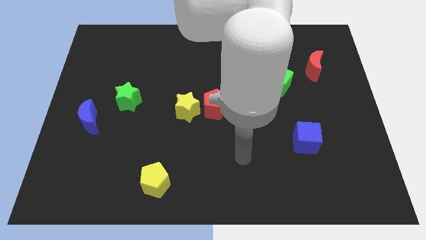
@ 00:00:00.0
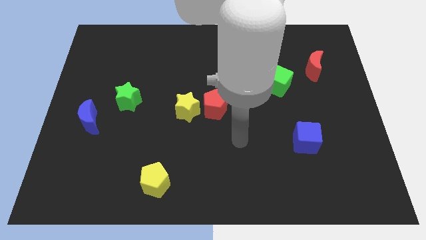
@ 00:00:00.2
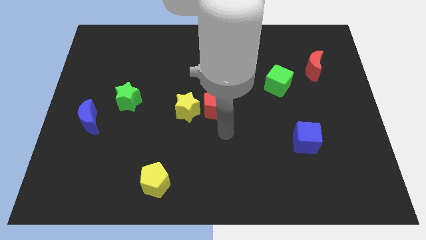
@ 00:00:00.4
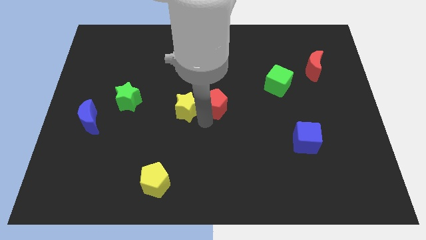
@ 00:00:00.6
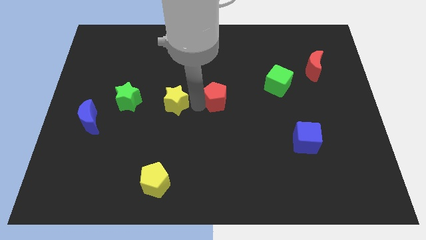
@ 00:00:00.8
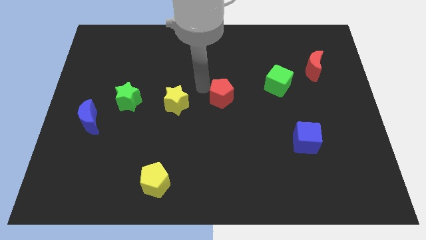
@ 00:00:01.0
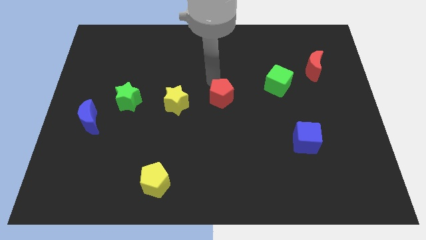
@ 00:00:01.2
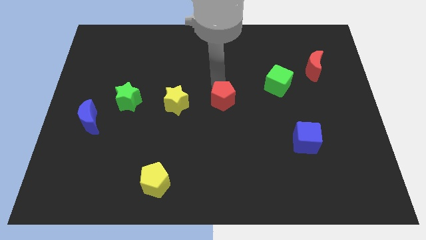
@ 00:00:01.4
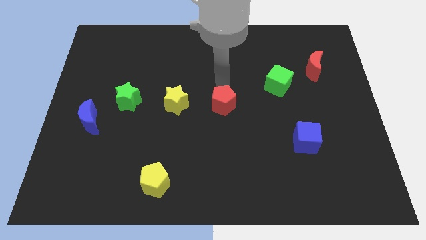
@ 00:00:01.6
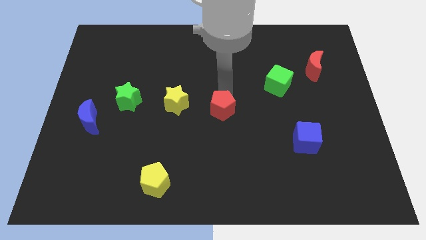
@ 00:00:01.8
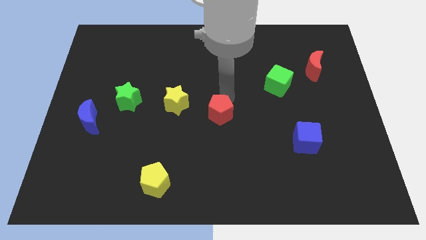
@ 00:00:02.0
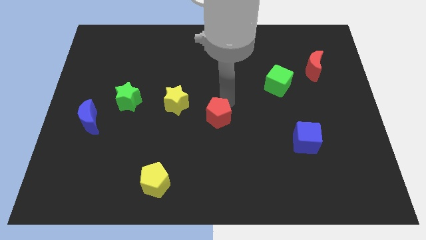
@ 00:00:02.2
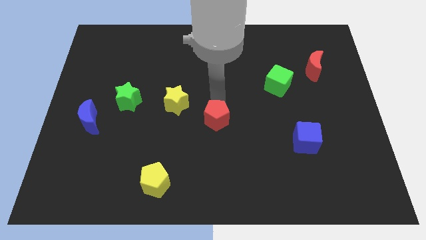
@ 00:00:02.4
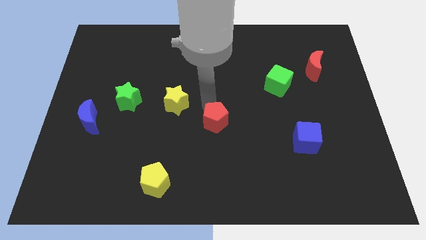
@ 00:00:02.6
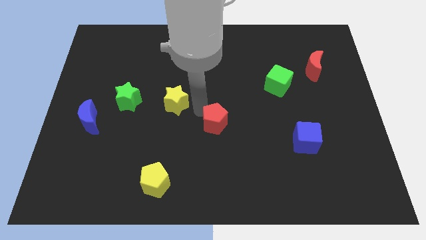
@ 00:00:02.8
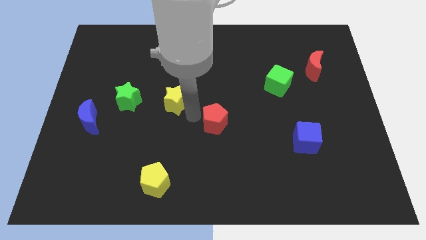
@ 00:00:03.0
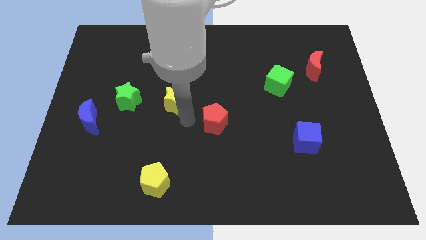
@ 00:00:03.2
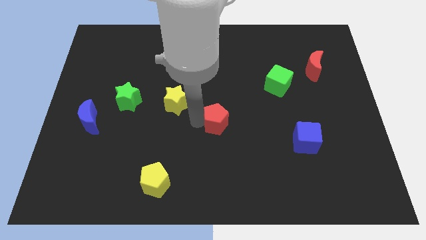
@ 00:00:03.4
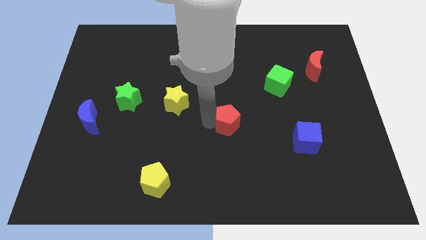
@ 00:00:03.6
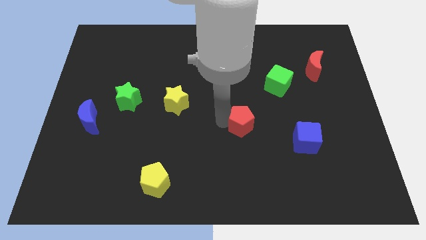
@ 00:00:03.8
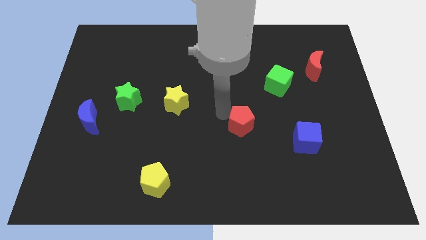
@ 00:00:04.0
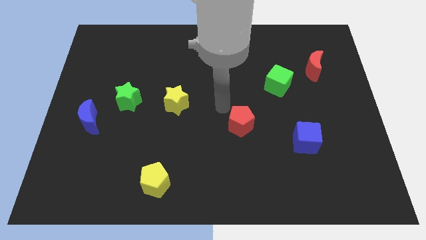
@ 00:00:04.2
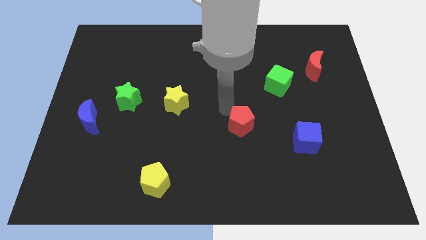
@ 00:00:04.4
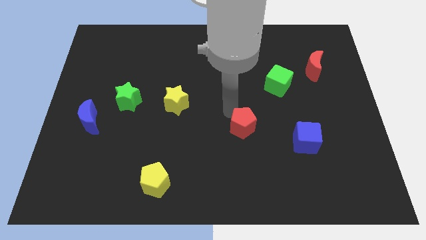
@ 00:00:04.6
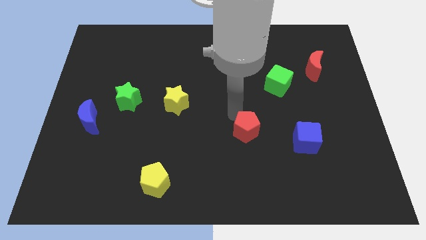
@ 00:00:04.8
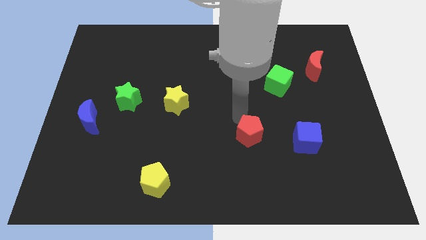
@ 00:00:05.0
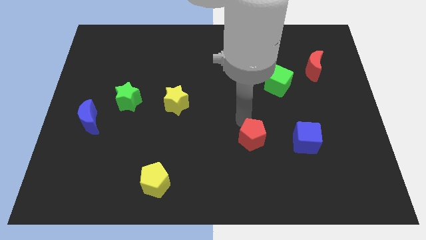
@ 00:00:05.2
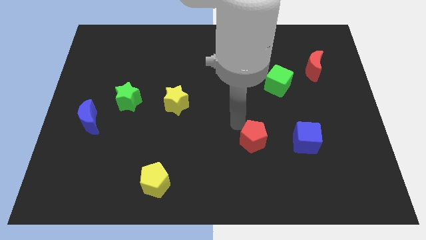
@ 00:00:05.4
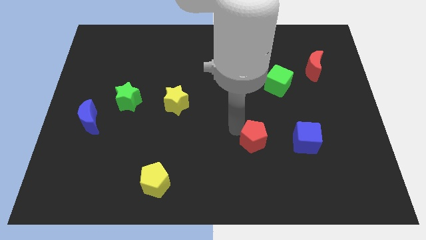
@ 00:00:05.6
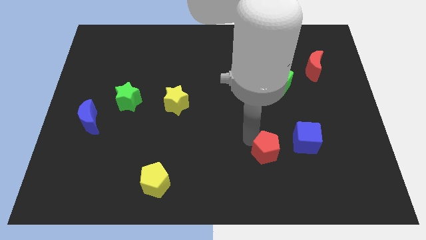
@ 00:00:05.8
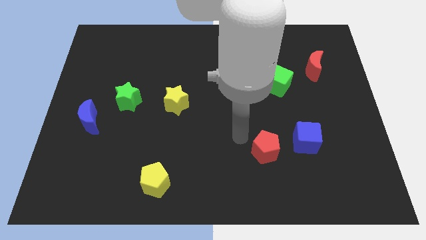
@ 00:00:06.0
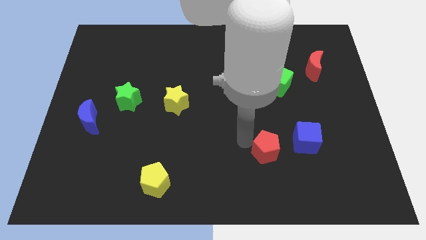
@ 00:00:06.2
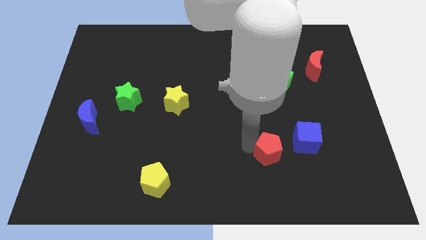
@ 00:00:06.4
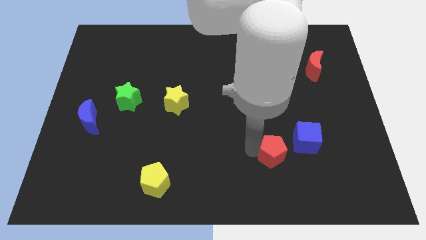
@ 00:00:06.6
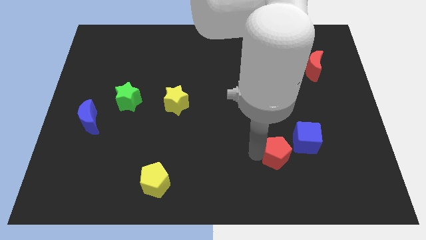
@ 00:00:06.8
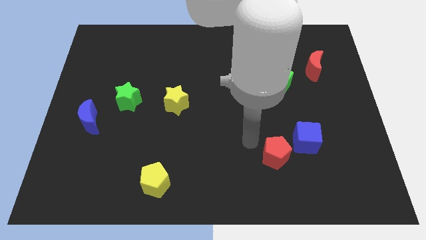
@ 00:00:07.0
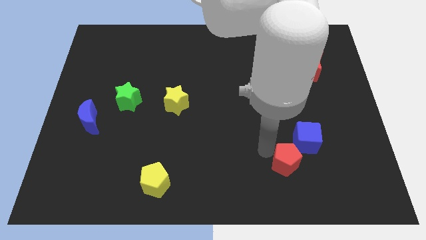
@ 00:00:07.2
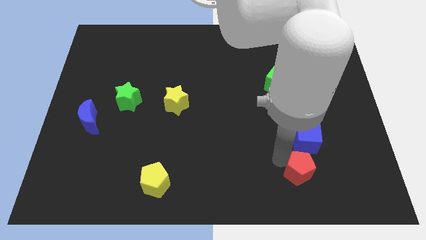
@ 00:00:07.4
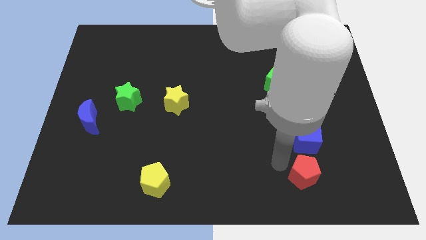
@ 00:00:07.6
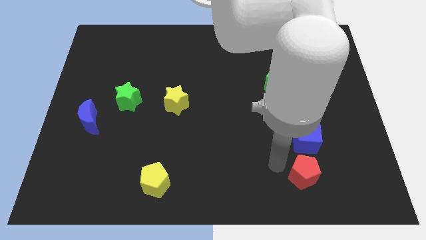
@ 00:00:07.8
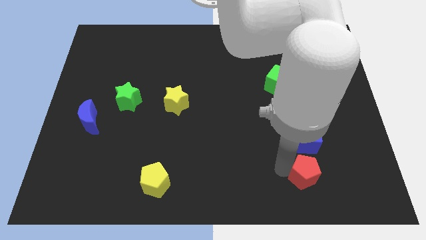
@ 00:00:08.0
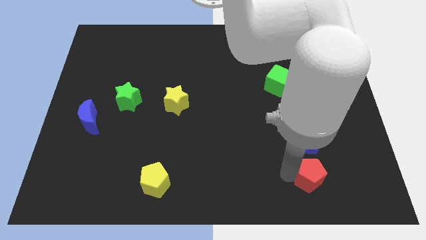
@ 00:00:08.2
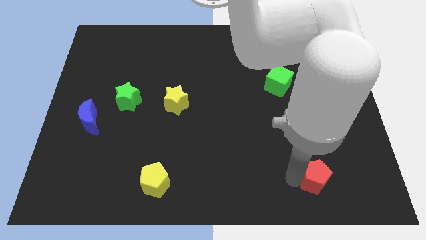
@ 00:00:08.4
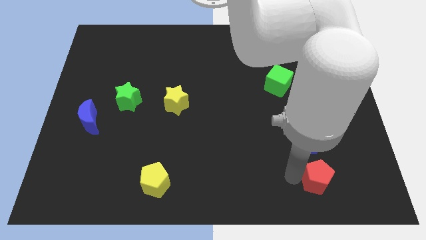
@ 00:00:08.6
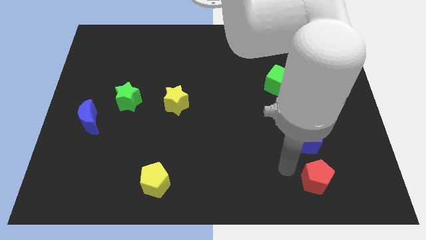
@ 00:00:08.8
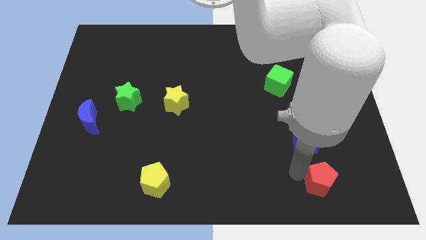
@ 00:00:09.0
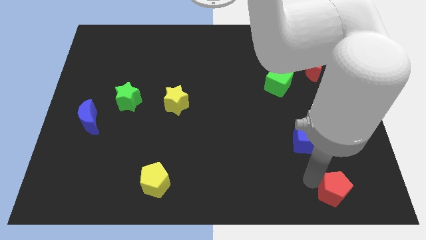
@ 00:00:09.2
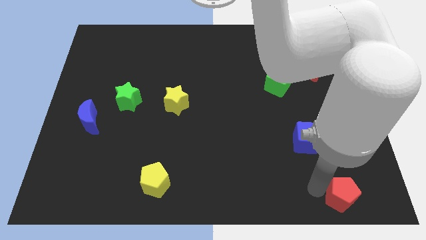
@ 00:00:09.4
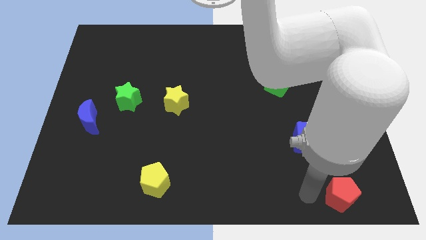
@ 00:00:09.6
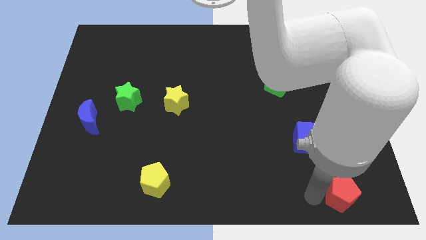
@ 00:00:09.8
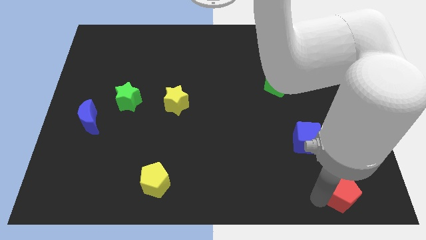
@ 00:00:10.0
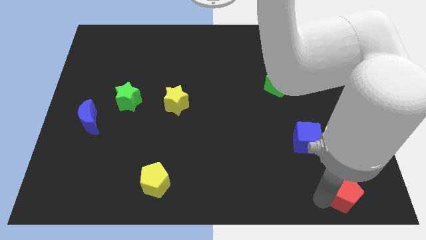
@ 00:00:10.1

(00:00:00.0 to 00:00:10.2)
move the red pentagon to the bottom right

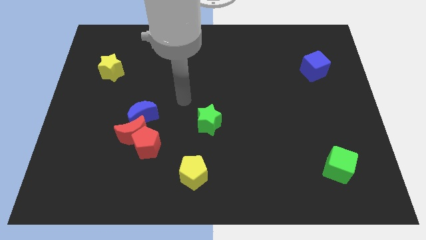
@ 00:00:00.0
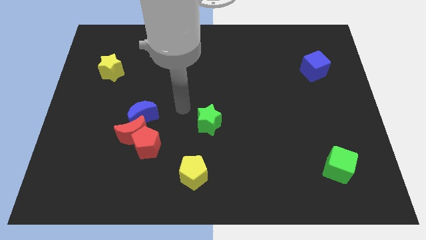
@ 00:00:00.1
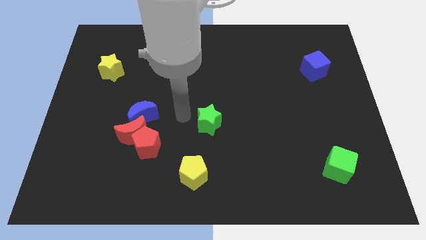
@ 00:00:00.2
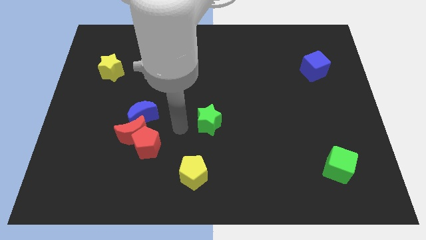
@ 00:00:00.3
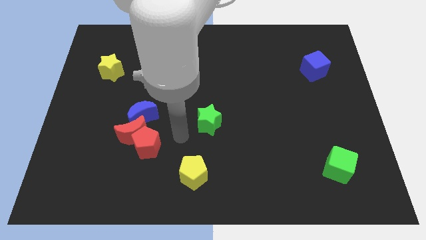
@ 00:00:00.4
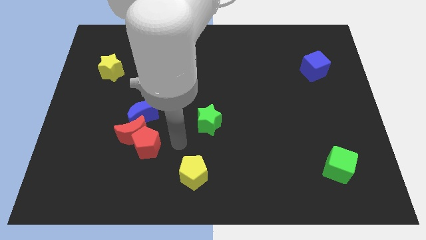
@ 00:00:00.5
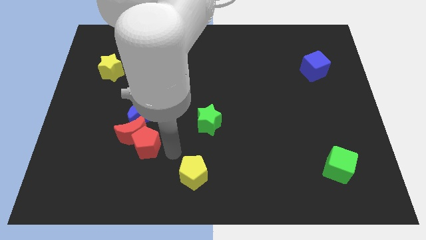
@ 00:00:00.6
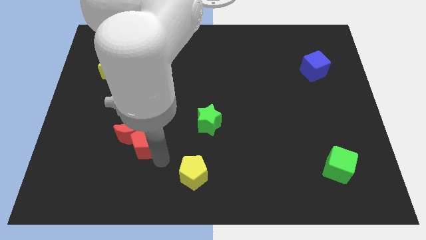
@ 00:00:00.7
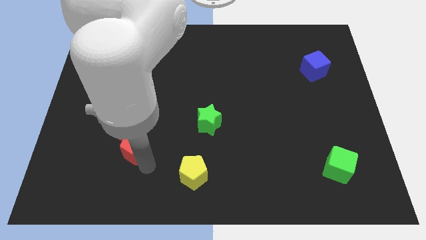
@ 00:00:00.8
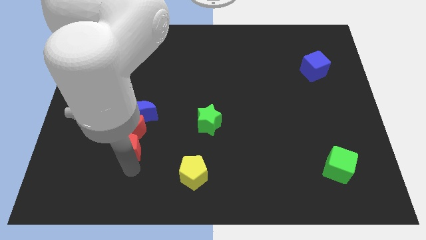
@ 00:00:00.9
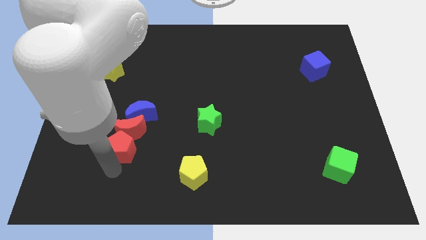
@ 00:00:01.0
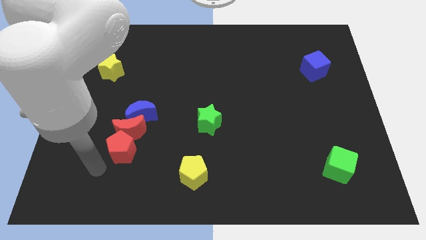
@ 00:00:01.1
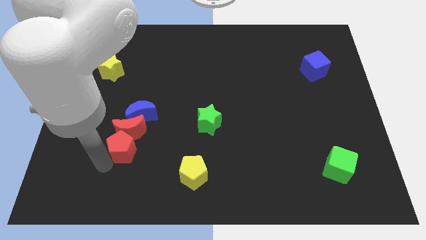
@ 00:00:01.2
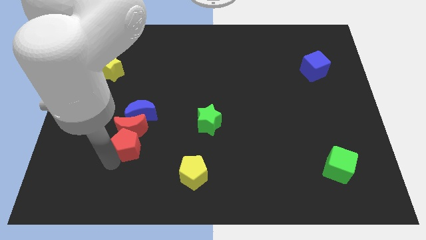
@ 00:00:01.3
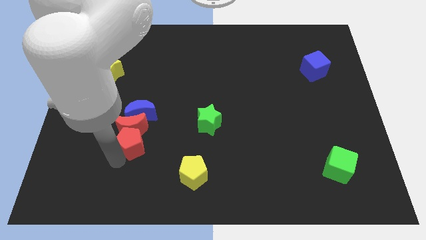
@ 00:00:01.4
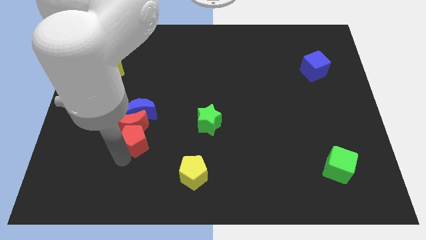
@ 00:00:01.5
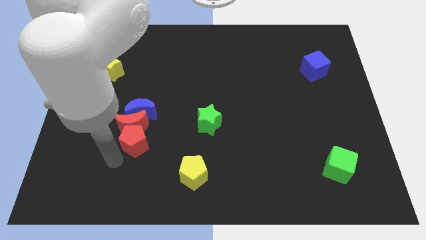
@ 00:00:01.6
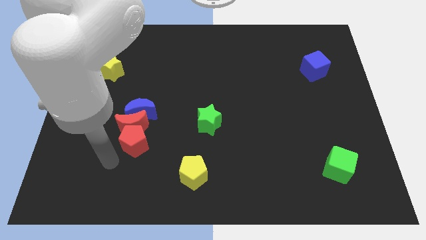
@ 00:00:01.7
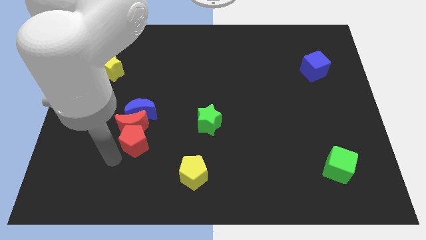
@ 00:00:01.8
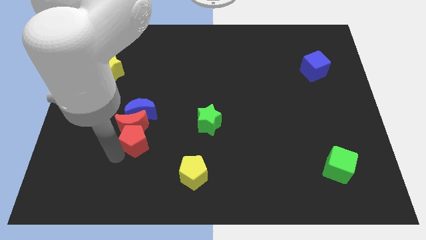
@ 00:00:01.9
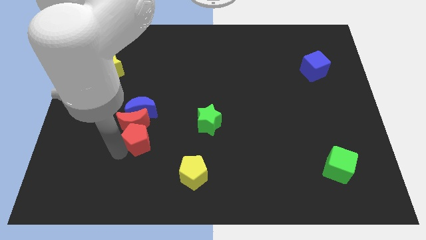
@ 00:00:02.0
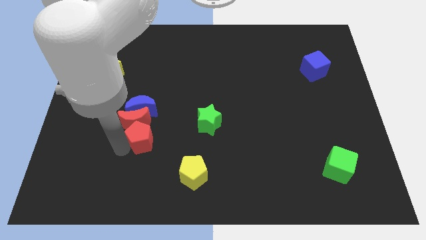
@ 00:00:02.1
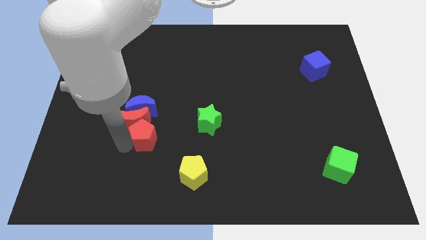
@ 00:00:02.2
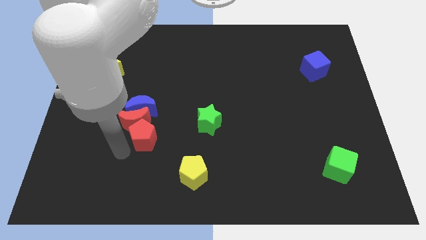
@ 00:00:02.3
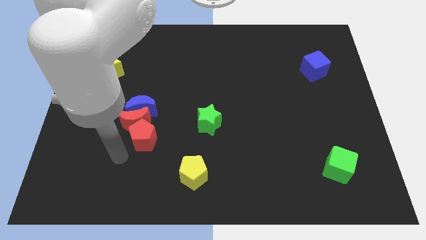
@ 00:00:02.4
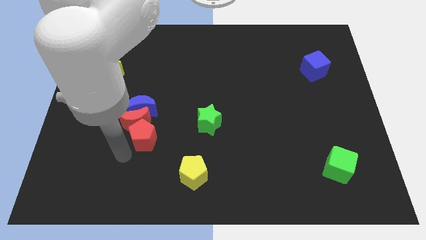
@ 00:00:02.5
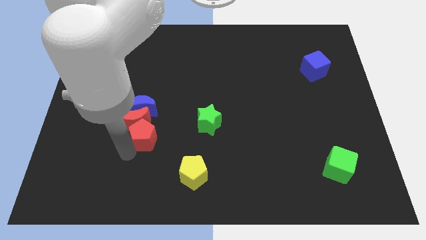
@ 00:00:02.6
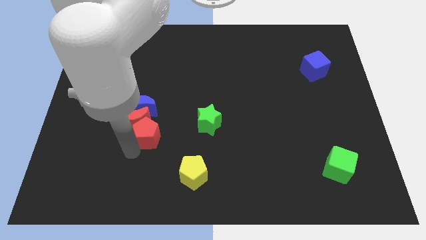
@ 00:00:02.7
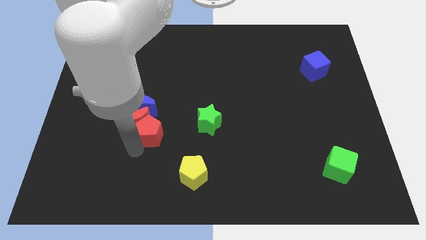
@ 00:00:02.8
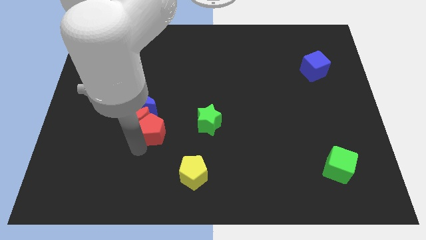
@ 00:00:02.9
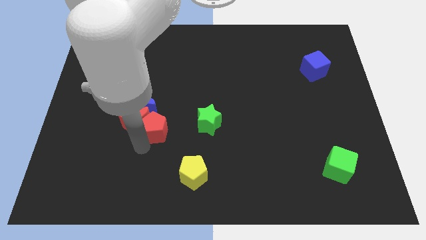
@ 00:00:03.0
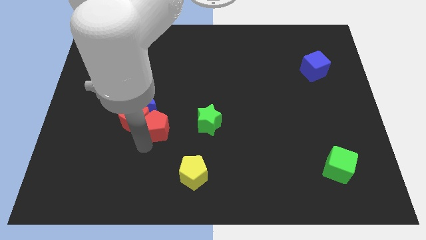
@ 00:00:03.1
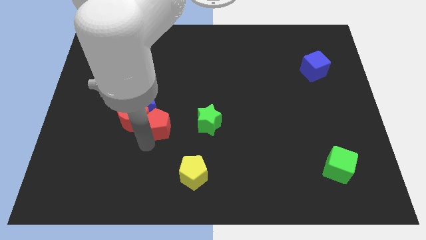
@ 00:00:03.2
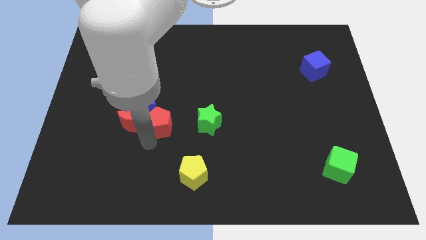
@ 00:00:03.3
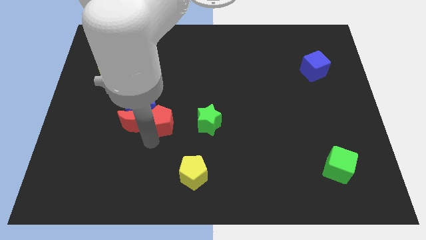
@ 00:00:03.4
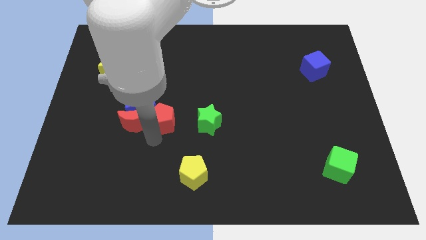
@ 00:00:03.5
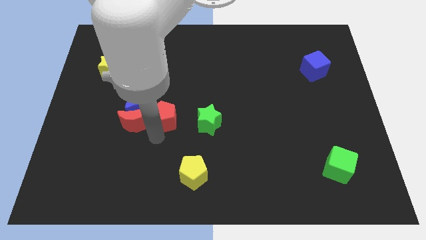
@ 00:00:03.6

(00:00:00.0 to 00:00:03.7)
put the red pentagon to the middle of the board
